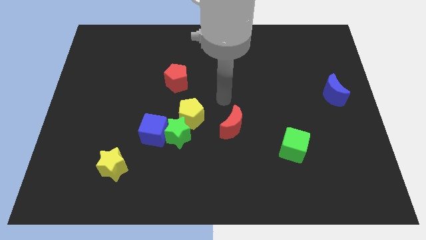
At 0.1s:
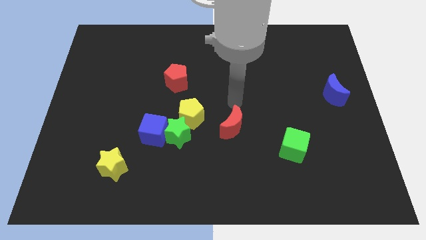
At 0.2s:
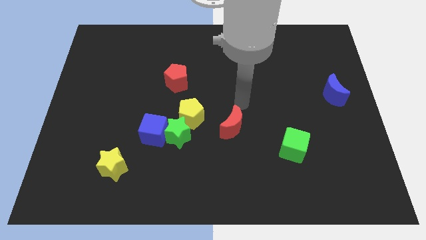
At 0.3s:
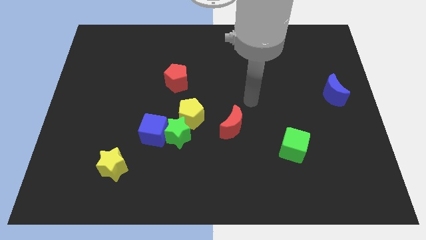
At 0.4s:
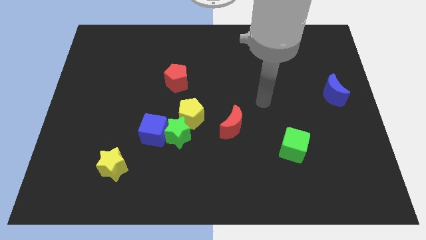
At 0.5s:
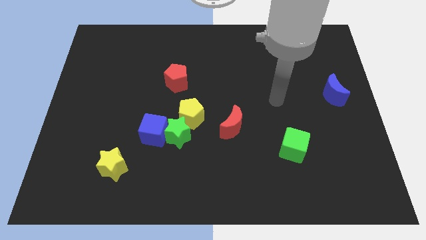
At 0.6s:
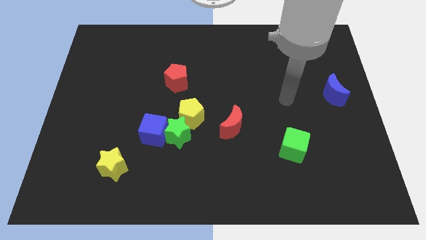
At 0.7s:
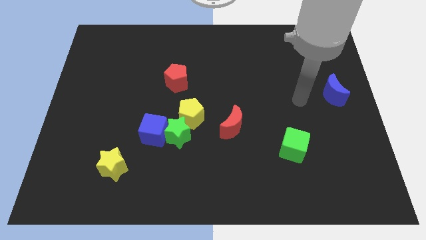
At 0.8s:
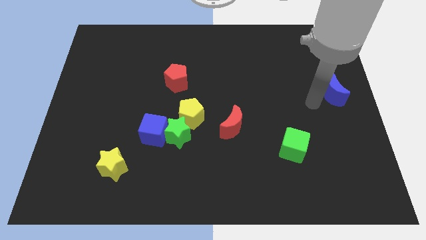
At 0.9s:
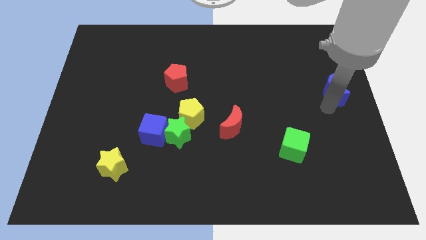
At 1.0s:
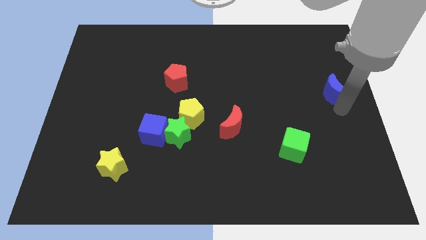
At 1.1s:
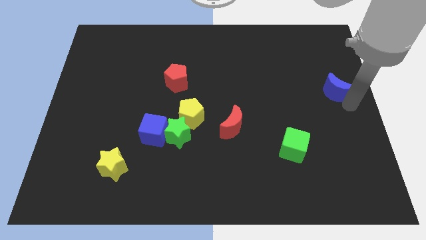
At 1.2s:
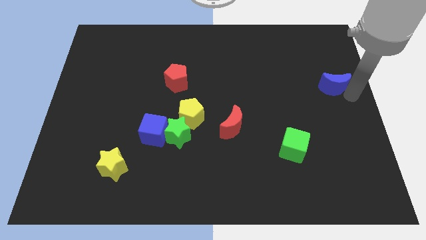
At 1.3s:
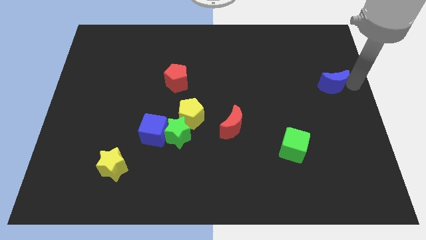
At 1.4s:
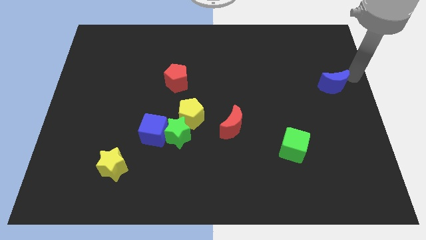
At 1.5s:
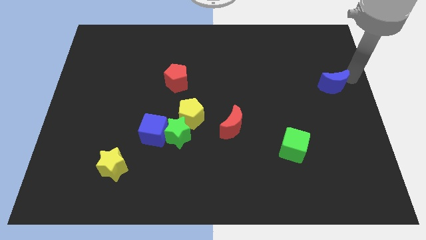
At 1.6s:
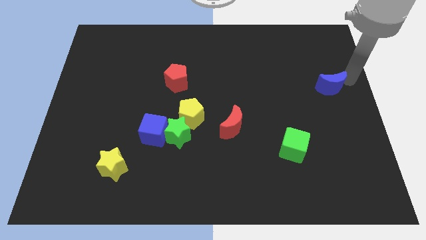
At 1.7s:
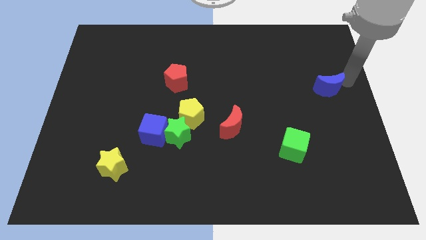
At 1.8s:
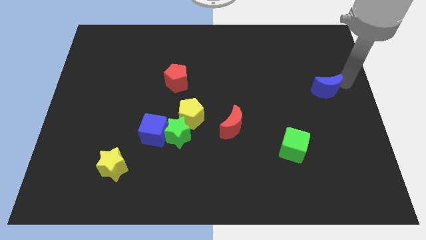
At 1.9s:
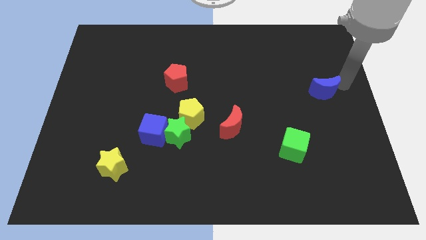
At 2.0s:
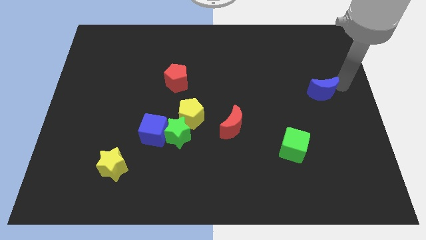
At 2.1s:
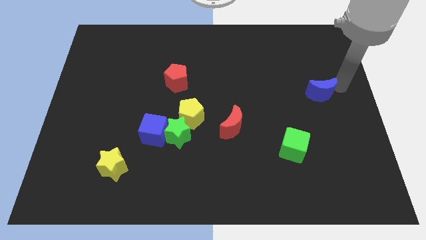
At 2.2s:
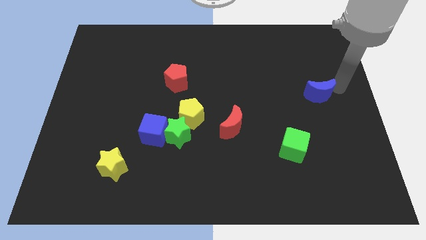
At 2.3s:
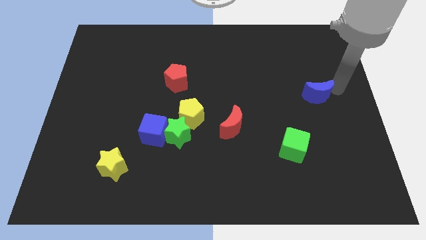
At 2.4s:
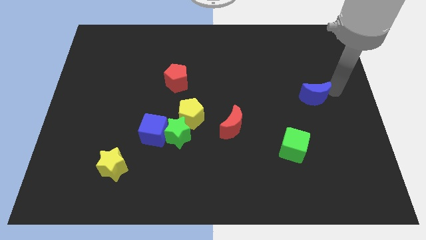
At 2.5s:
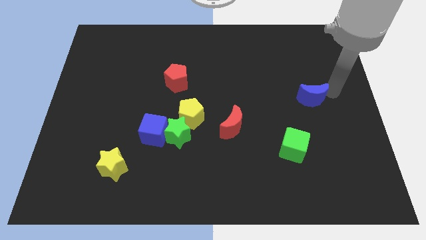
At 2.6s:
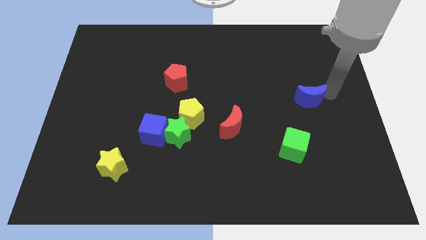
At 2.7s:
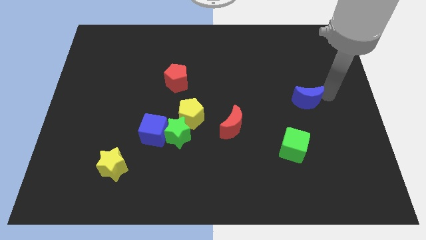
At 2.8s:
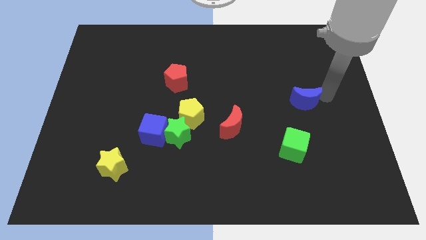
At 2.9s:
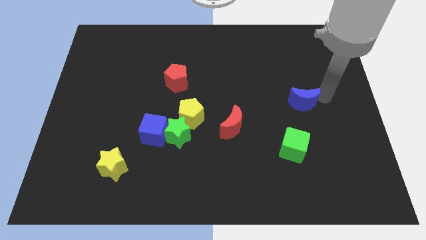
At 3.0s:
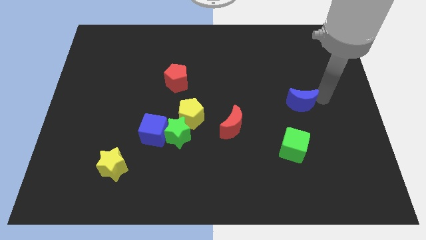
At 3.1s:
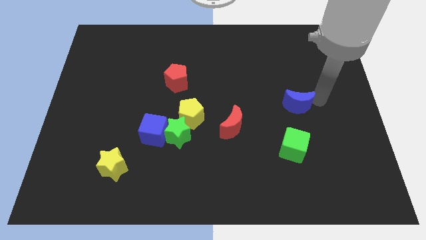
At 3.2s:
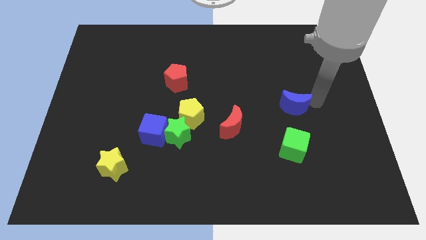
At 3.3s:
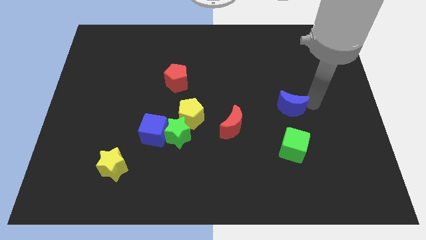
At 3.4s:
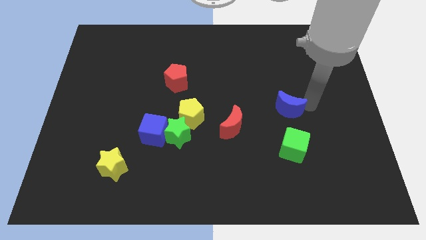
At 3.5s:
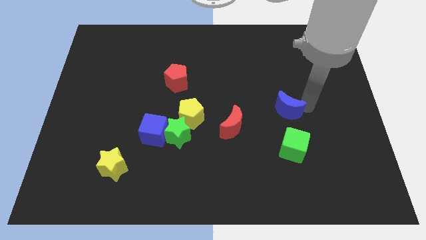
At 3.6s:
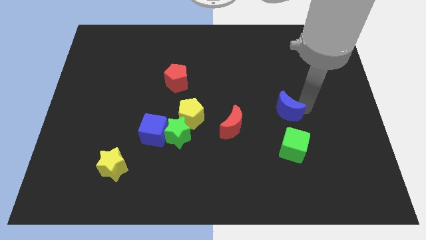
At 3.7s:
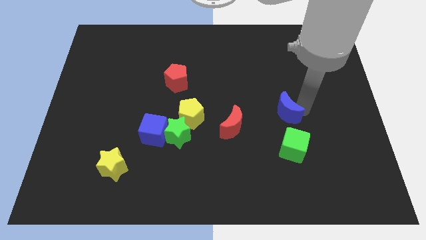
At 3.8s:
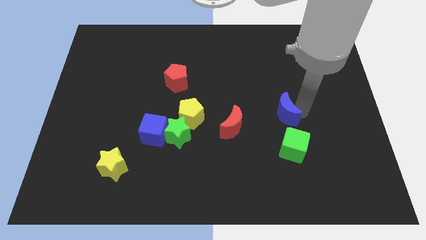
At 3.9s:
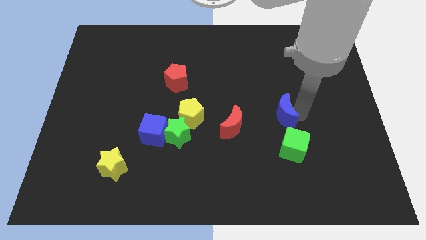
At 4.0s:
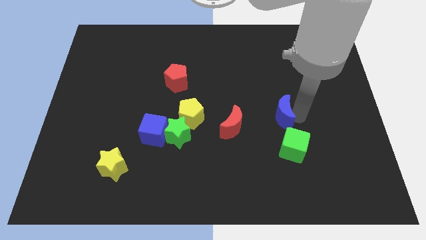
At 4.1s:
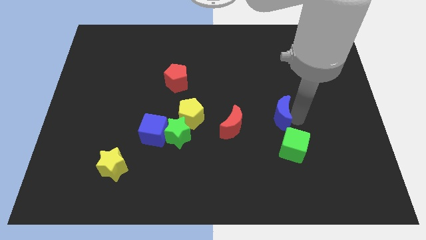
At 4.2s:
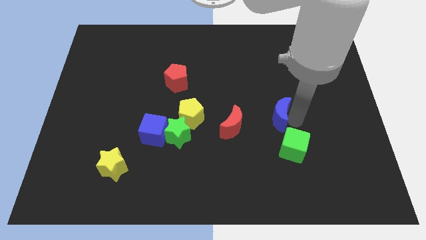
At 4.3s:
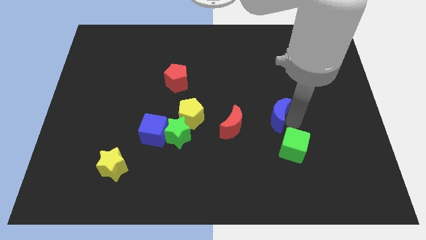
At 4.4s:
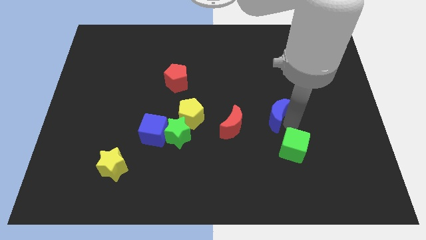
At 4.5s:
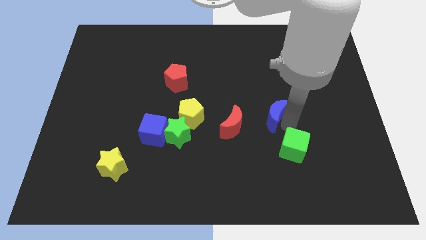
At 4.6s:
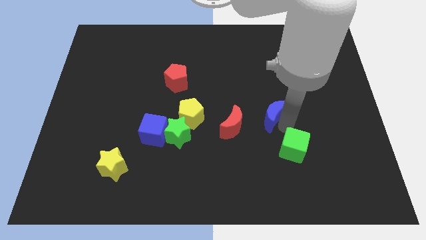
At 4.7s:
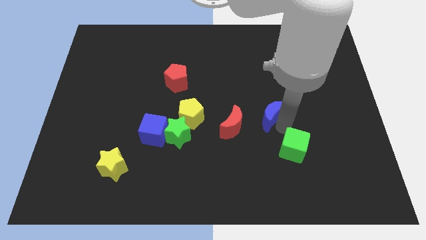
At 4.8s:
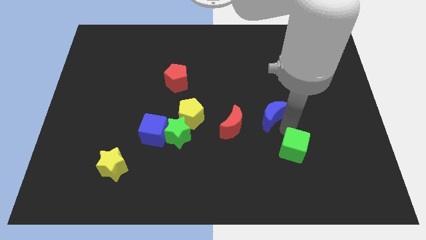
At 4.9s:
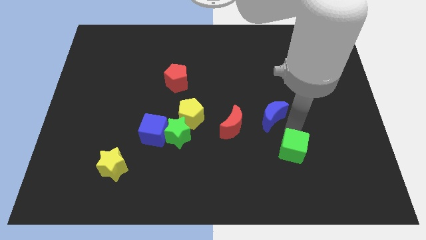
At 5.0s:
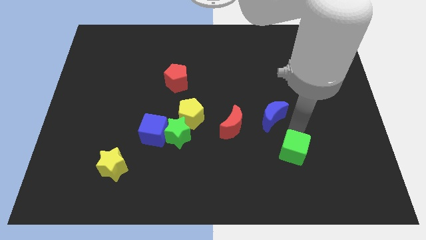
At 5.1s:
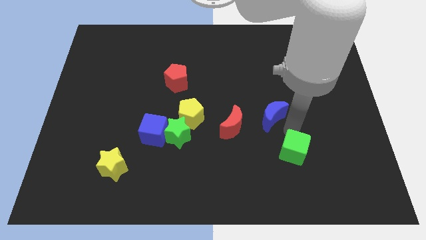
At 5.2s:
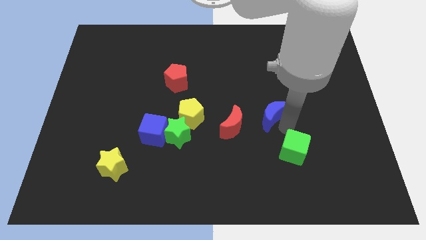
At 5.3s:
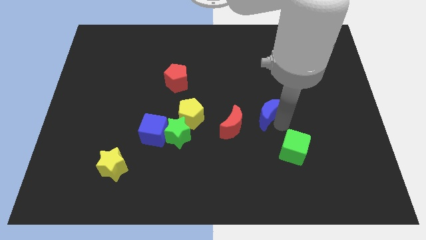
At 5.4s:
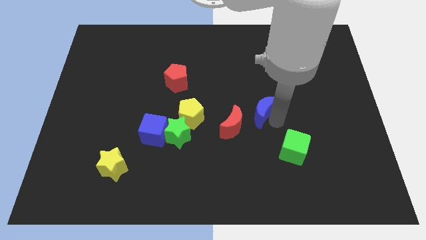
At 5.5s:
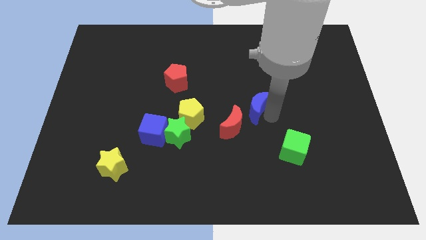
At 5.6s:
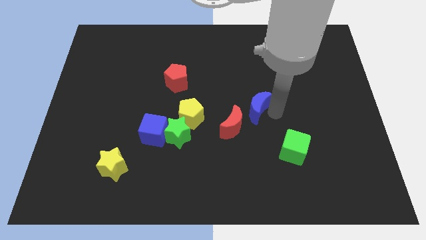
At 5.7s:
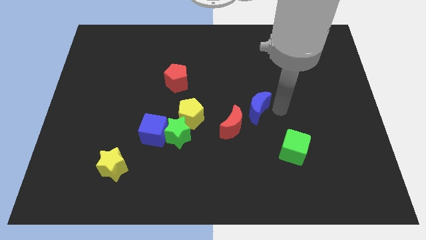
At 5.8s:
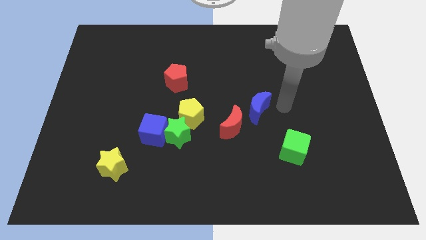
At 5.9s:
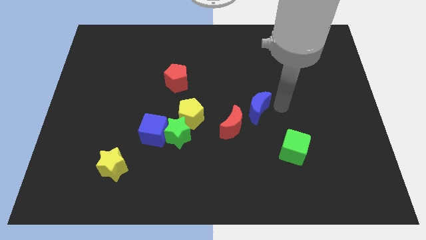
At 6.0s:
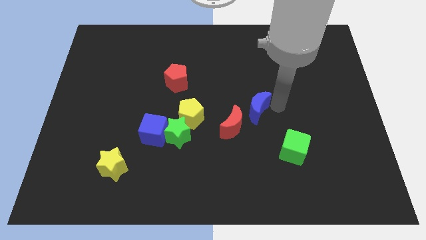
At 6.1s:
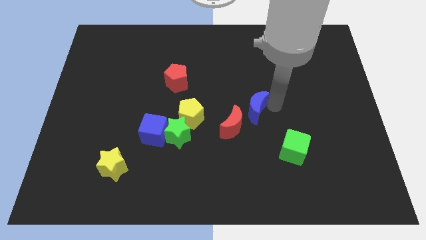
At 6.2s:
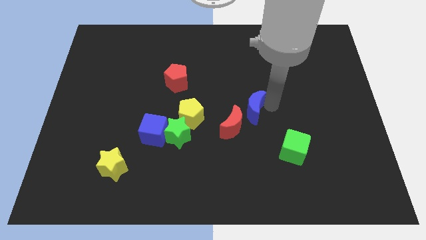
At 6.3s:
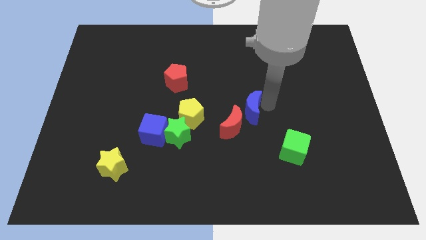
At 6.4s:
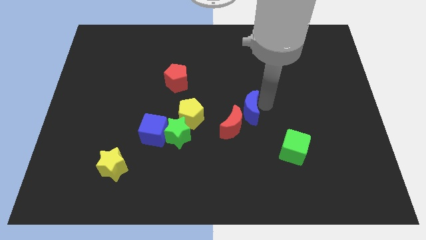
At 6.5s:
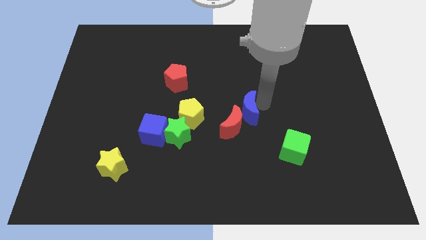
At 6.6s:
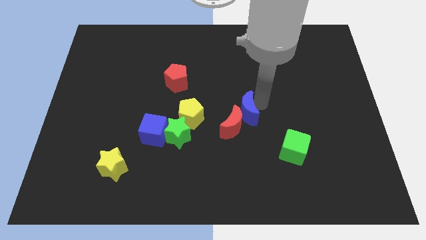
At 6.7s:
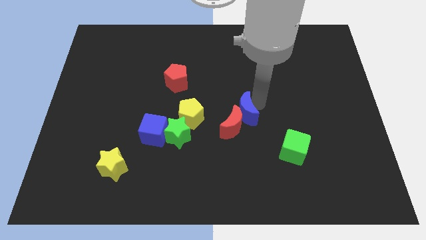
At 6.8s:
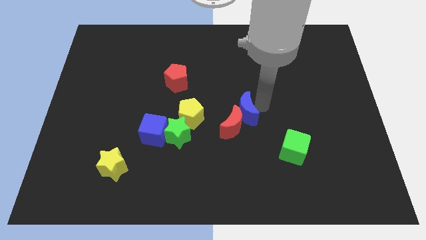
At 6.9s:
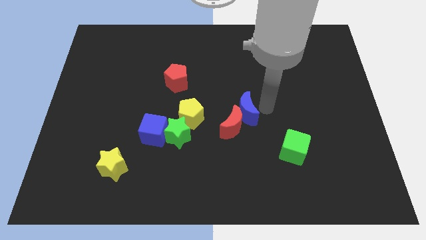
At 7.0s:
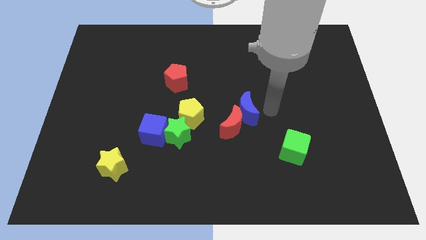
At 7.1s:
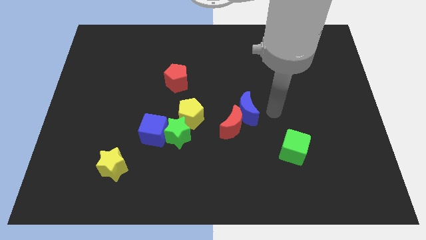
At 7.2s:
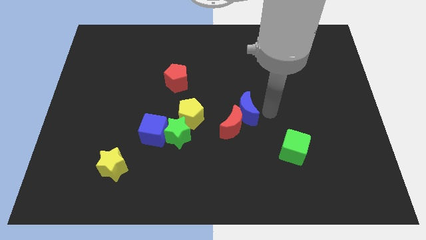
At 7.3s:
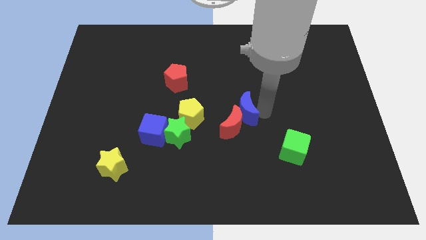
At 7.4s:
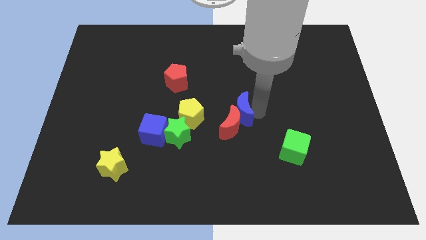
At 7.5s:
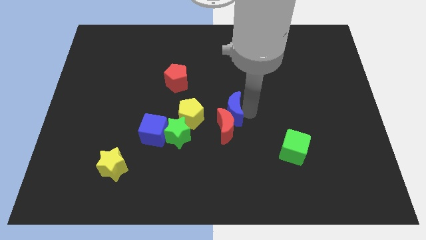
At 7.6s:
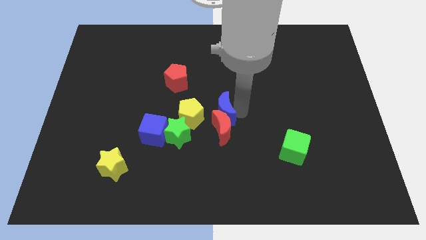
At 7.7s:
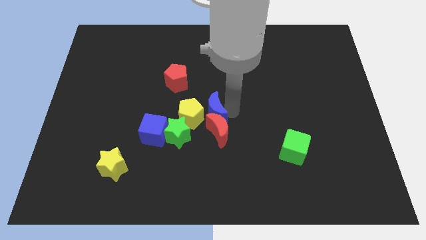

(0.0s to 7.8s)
push the blue moon next to the yellow pentagon

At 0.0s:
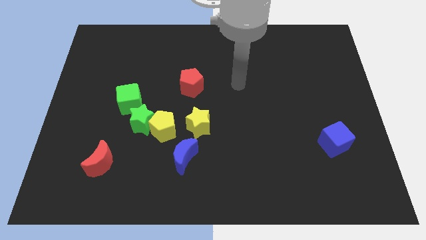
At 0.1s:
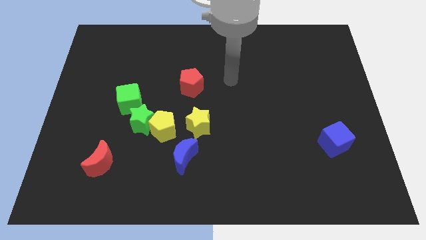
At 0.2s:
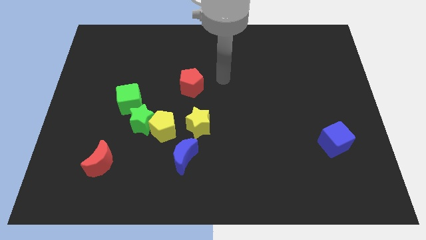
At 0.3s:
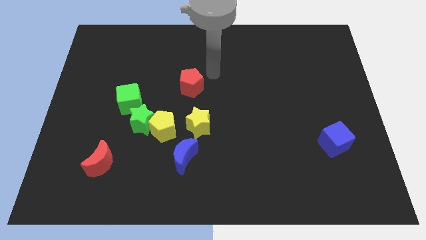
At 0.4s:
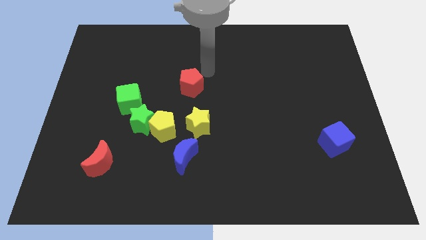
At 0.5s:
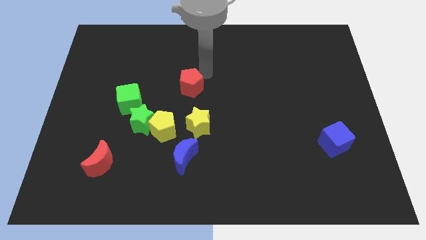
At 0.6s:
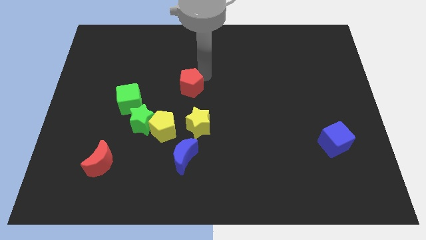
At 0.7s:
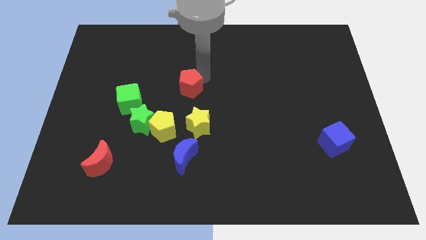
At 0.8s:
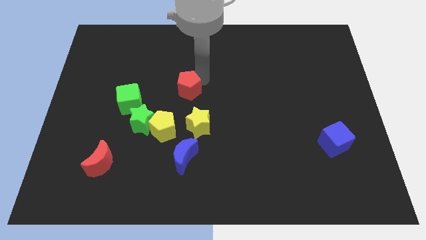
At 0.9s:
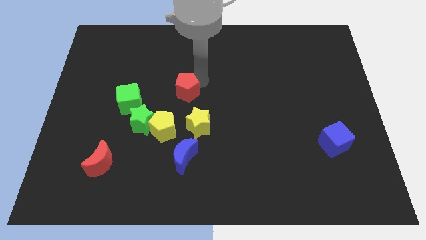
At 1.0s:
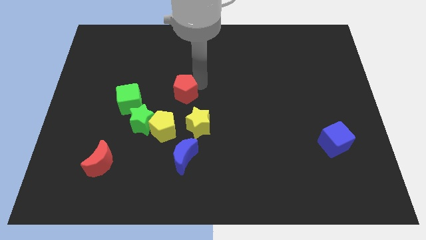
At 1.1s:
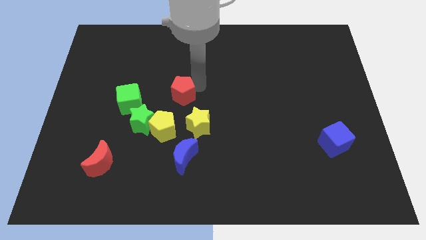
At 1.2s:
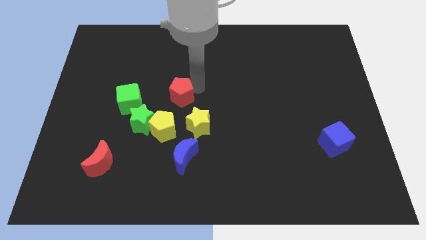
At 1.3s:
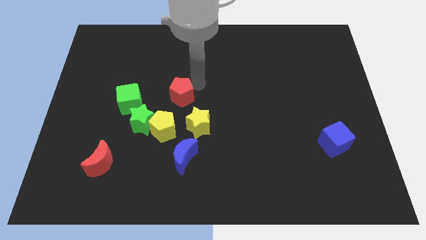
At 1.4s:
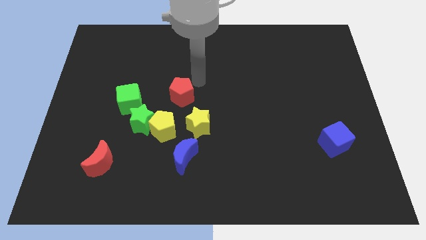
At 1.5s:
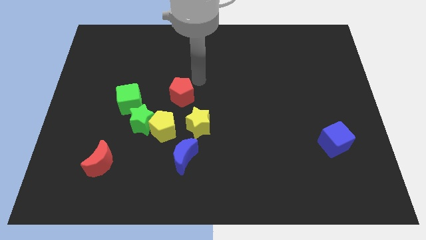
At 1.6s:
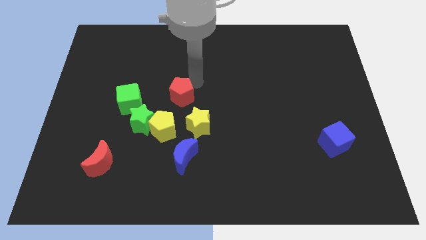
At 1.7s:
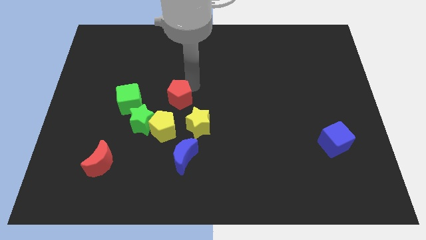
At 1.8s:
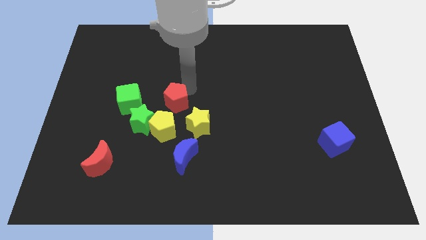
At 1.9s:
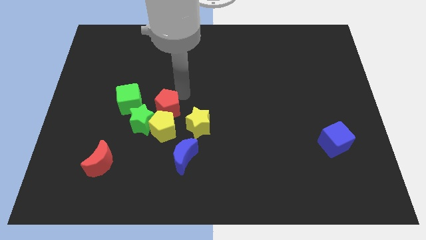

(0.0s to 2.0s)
put the red pentagon close to the yellow pentagon
